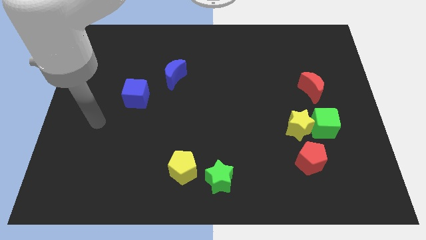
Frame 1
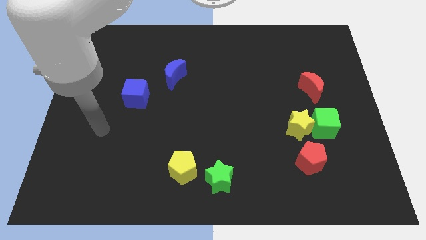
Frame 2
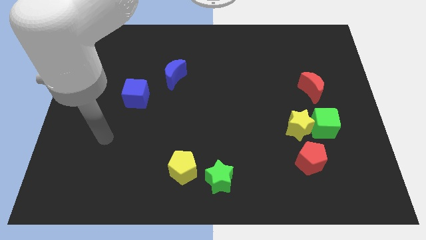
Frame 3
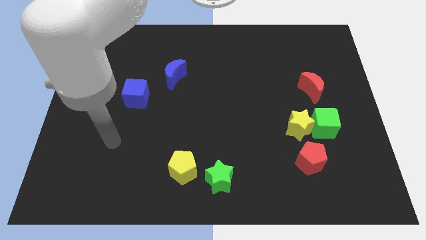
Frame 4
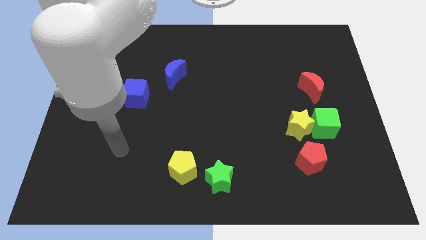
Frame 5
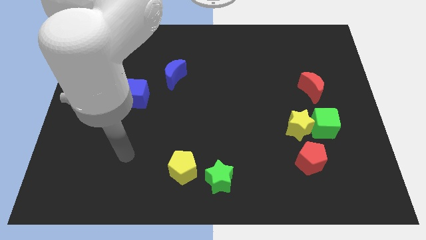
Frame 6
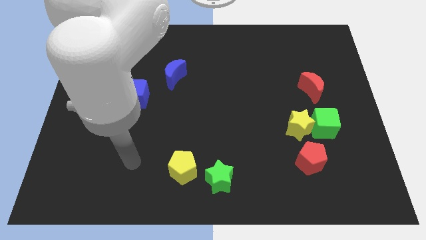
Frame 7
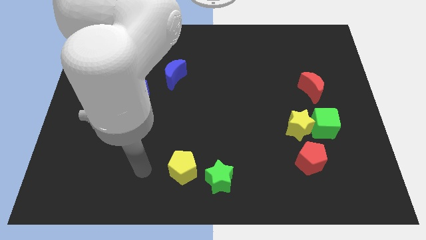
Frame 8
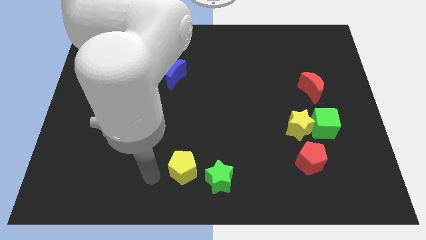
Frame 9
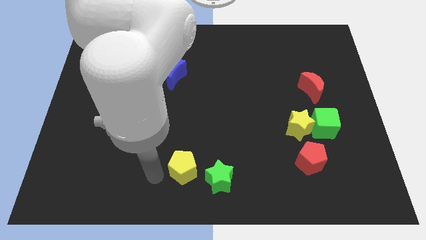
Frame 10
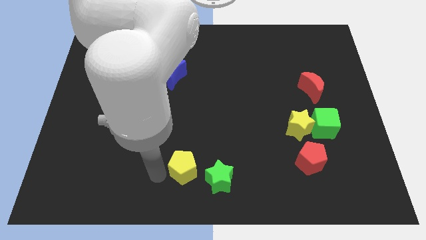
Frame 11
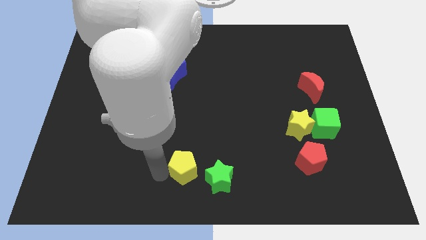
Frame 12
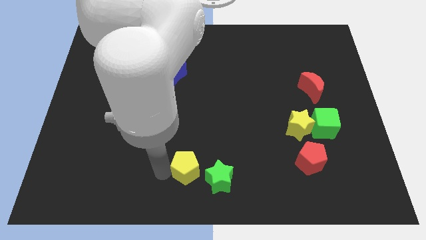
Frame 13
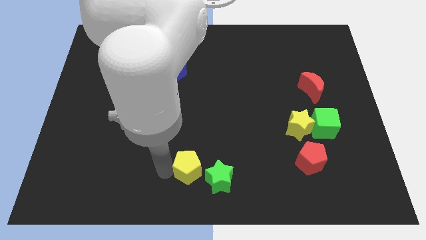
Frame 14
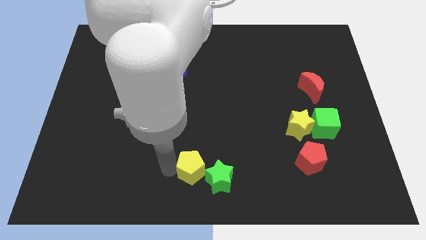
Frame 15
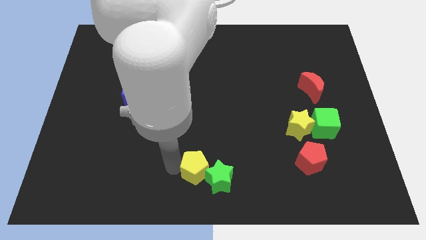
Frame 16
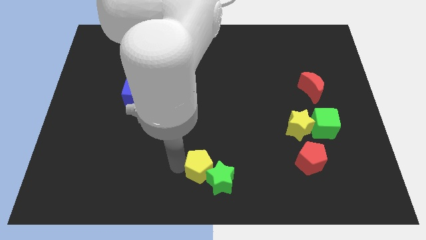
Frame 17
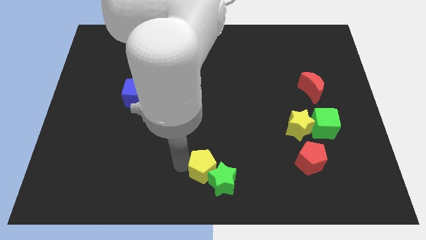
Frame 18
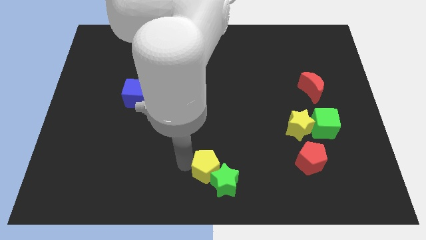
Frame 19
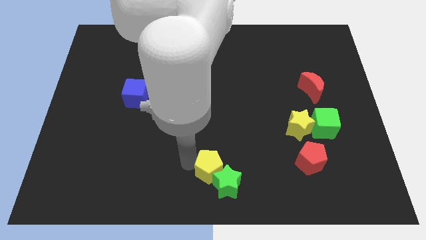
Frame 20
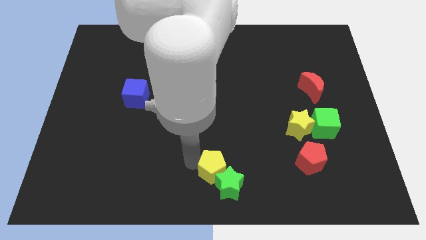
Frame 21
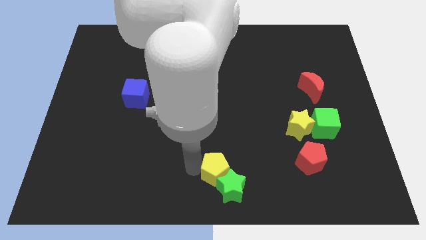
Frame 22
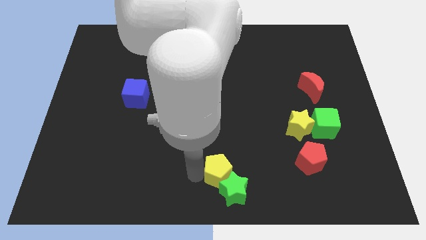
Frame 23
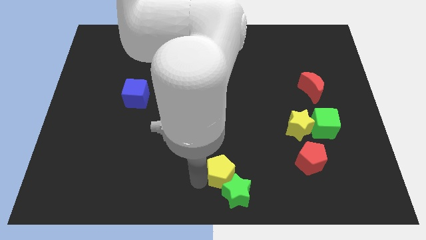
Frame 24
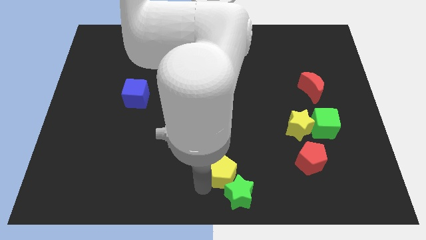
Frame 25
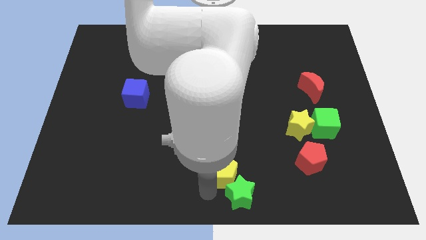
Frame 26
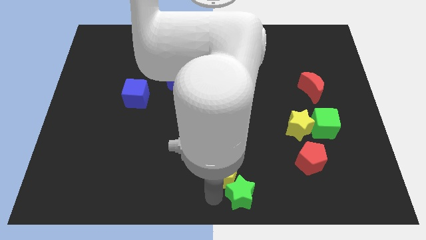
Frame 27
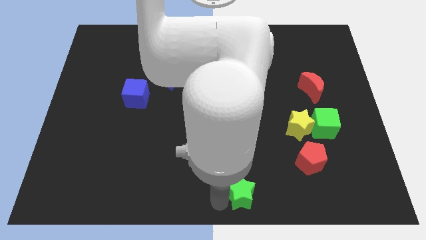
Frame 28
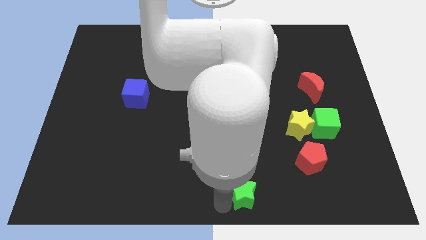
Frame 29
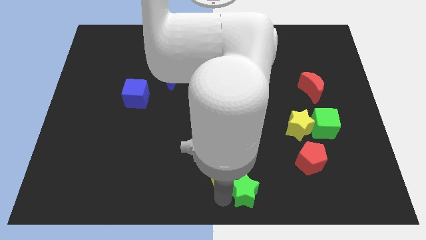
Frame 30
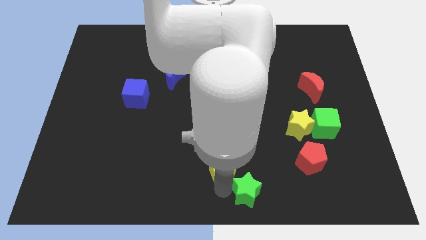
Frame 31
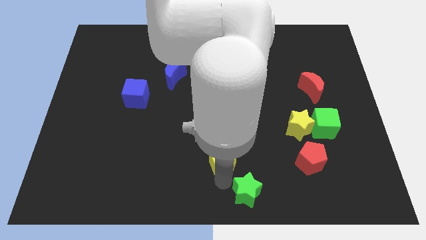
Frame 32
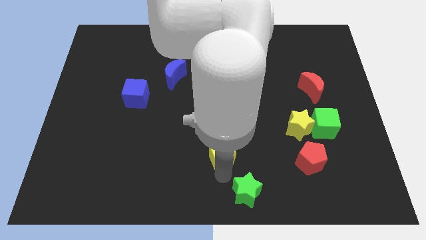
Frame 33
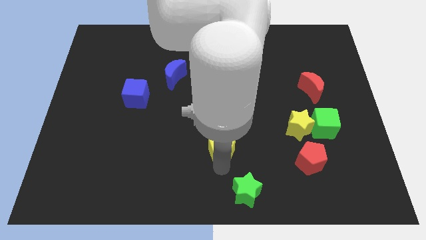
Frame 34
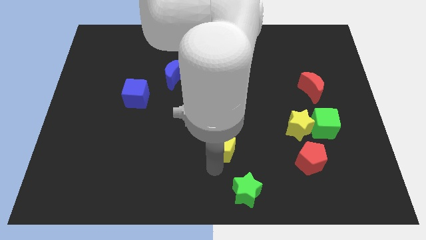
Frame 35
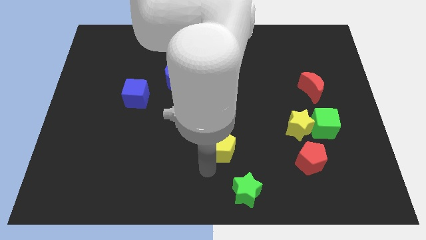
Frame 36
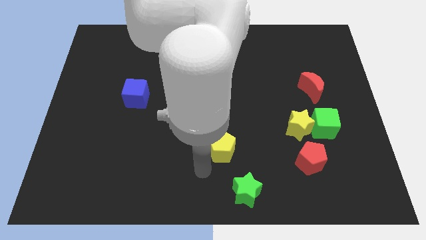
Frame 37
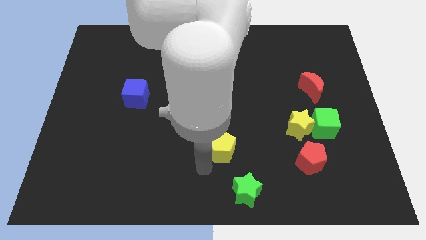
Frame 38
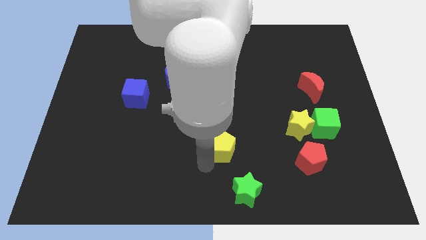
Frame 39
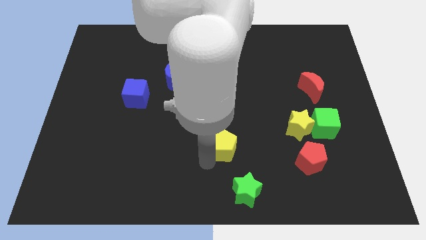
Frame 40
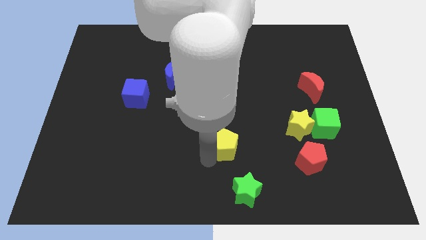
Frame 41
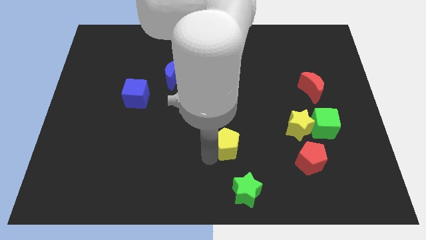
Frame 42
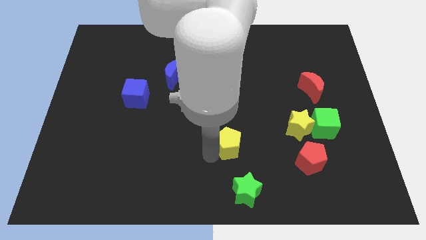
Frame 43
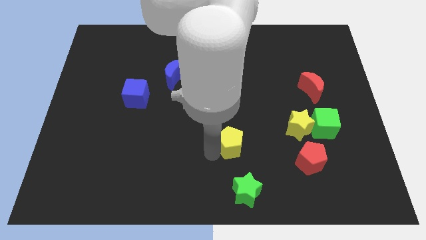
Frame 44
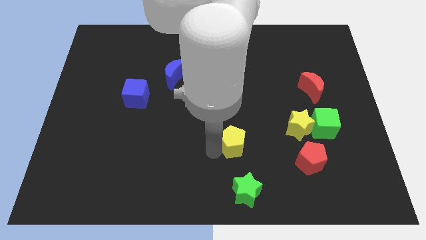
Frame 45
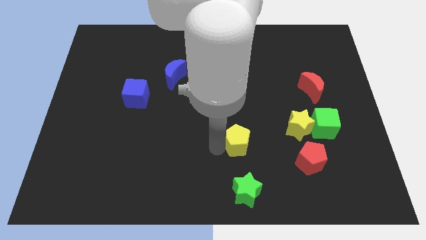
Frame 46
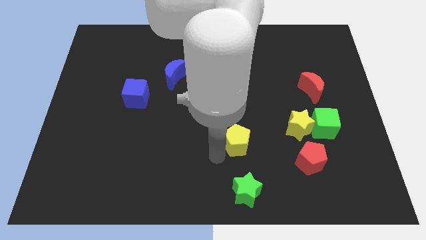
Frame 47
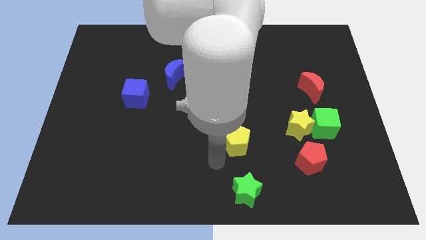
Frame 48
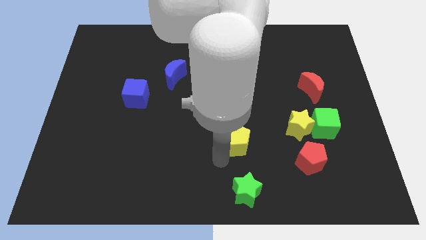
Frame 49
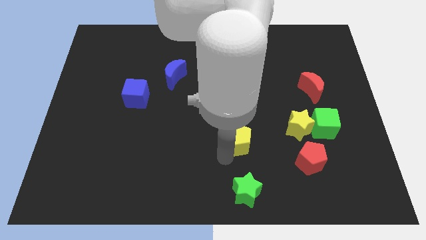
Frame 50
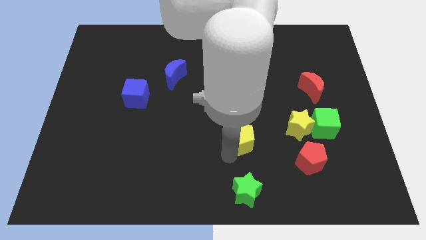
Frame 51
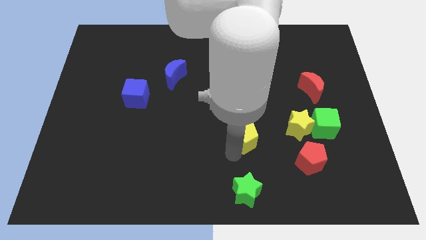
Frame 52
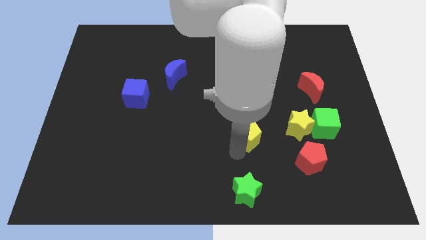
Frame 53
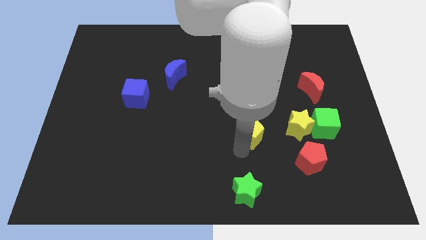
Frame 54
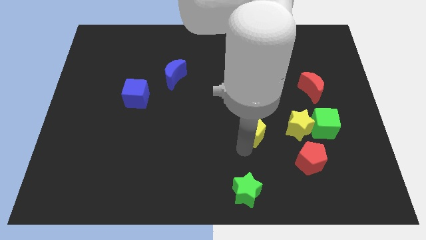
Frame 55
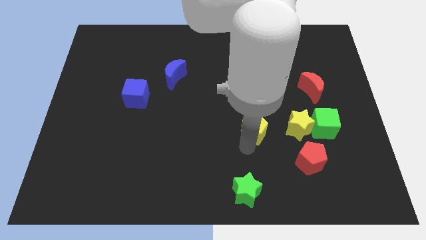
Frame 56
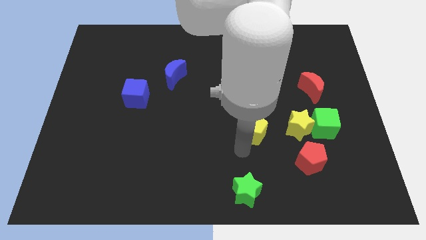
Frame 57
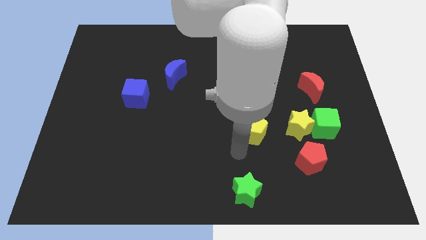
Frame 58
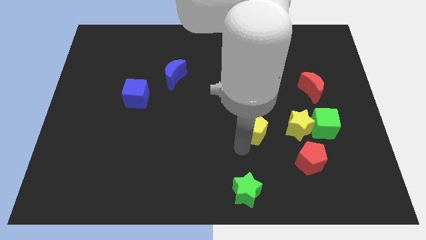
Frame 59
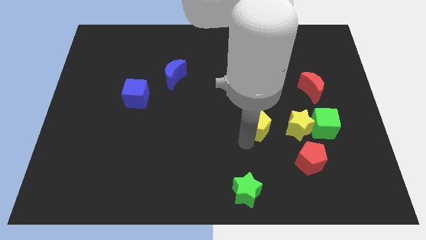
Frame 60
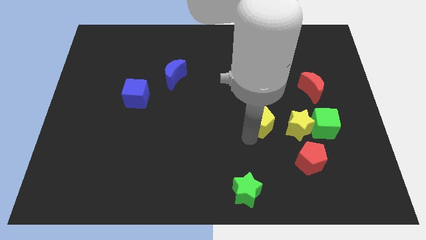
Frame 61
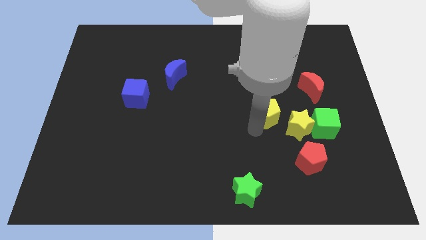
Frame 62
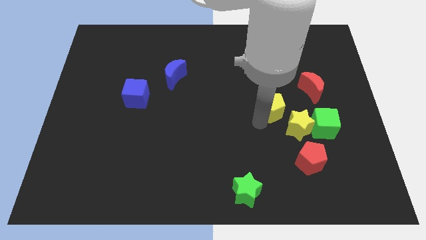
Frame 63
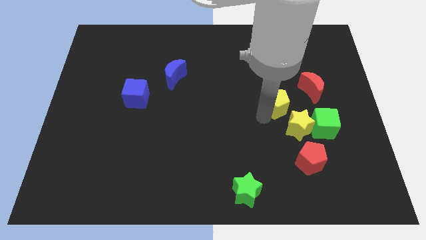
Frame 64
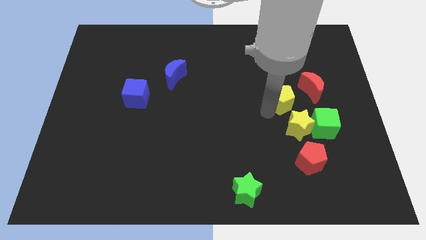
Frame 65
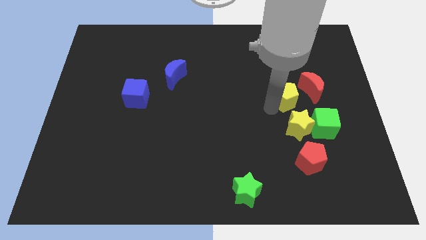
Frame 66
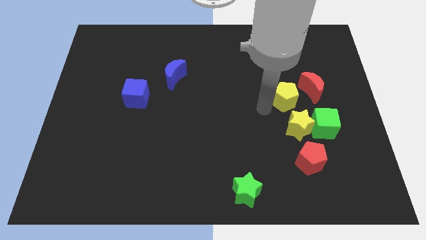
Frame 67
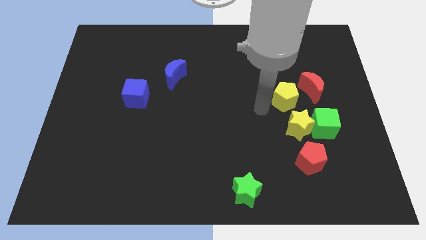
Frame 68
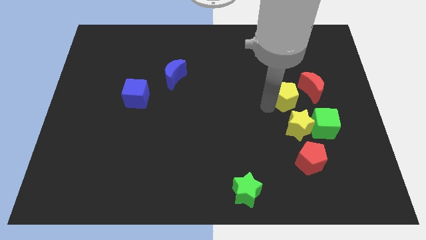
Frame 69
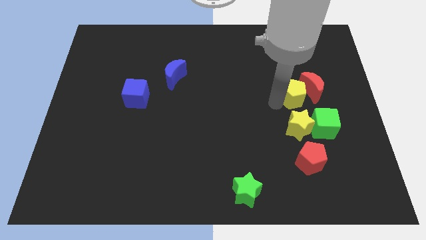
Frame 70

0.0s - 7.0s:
push the yellow pentagon towards the red moon
